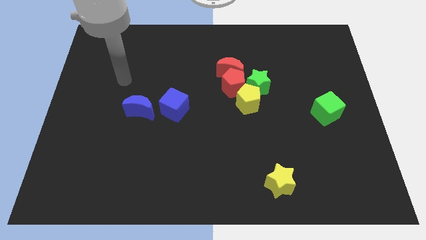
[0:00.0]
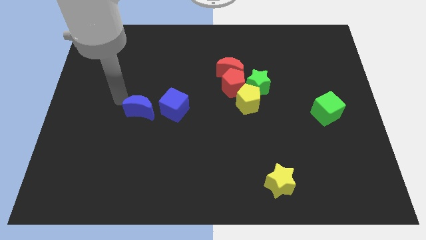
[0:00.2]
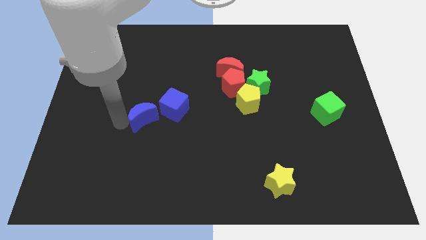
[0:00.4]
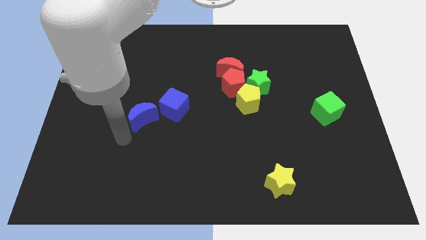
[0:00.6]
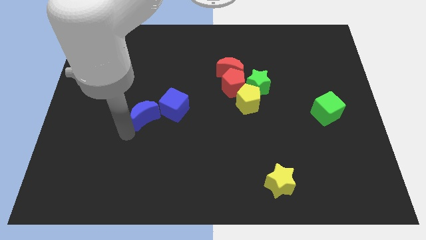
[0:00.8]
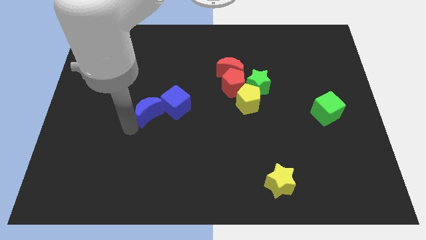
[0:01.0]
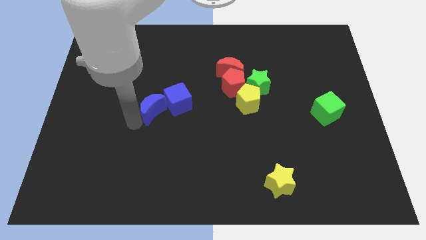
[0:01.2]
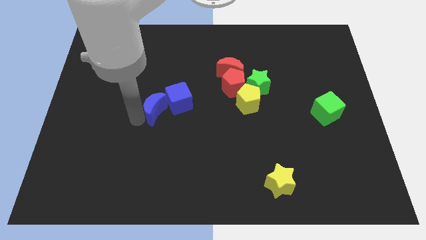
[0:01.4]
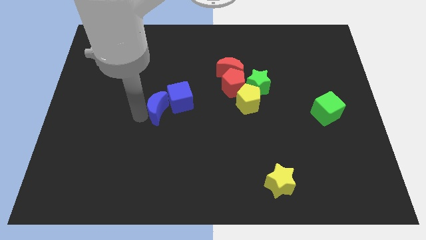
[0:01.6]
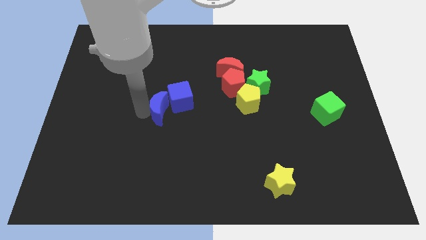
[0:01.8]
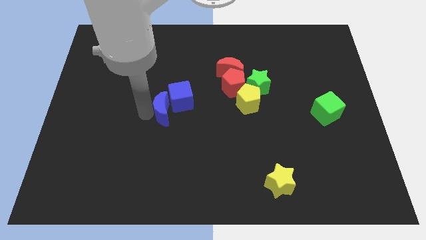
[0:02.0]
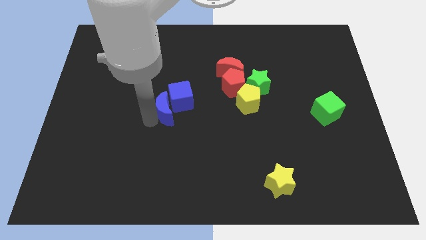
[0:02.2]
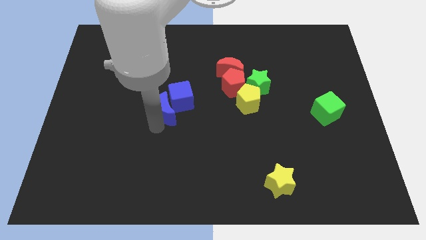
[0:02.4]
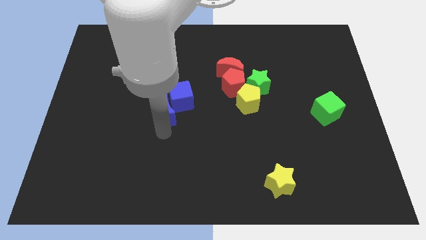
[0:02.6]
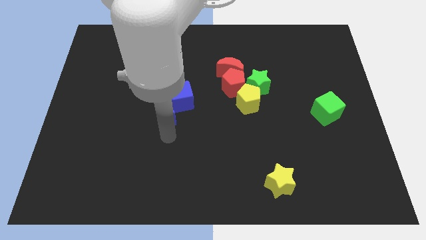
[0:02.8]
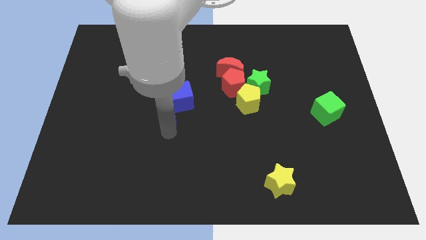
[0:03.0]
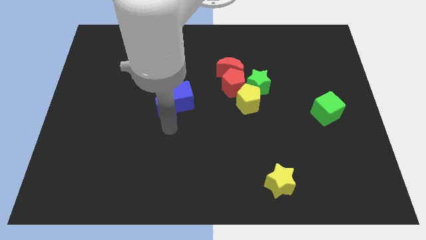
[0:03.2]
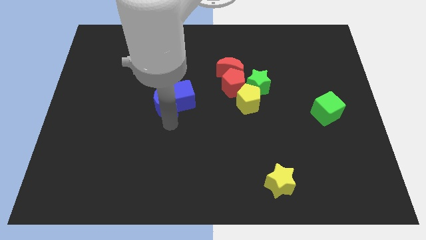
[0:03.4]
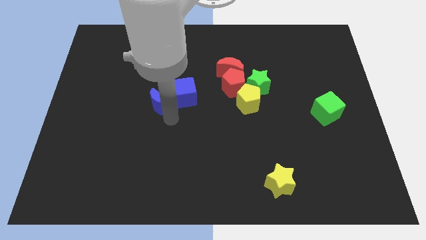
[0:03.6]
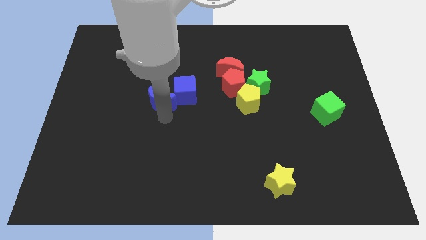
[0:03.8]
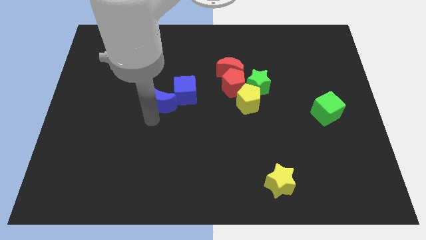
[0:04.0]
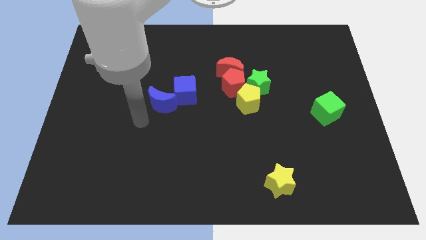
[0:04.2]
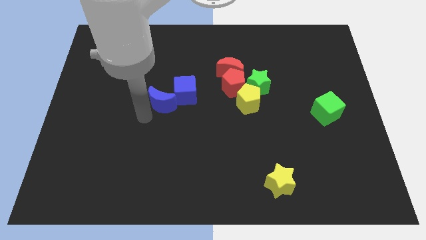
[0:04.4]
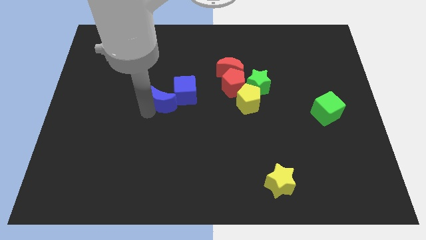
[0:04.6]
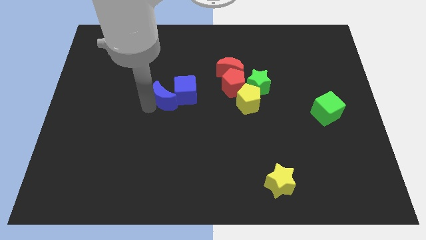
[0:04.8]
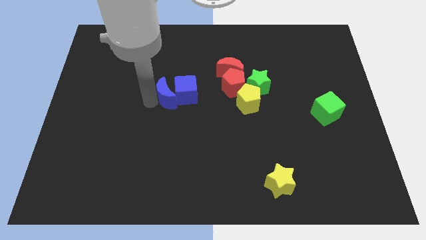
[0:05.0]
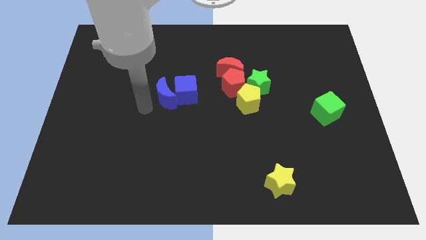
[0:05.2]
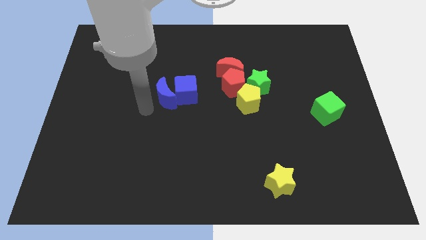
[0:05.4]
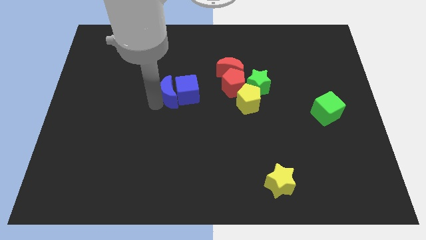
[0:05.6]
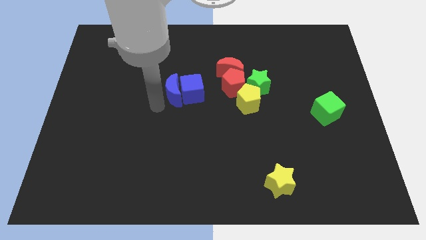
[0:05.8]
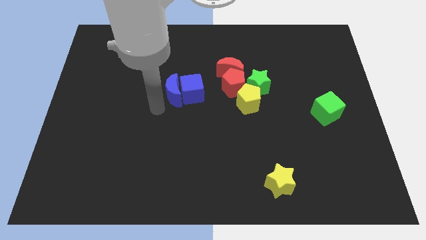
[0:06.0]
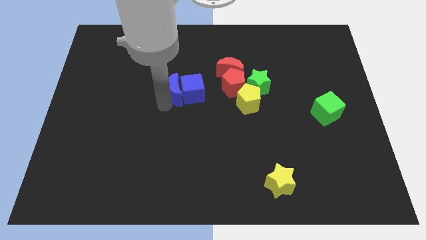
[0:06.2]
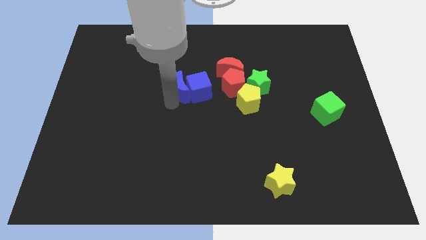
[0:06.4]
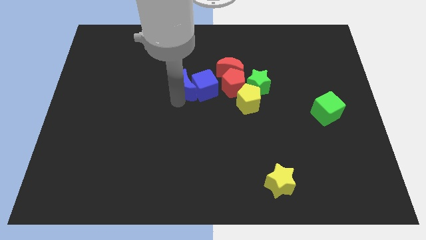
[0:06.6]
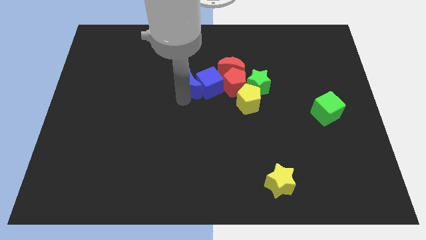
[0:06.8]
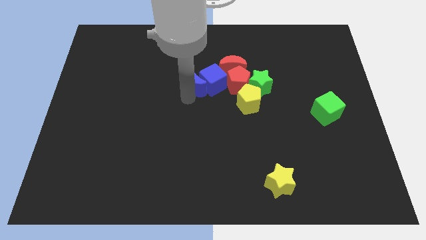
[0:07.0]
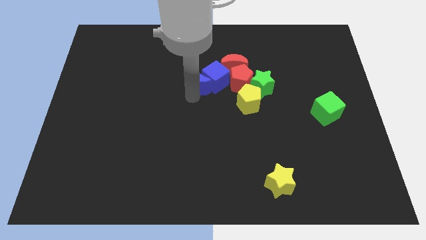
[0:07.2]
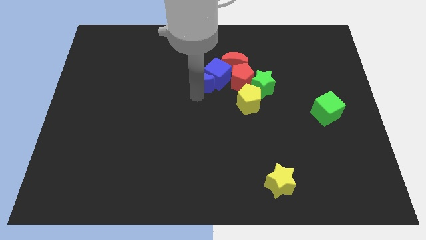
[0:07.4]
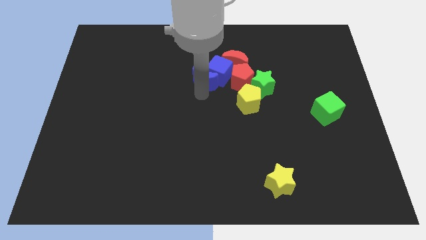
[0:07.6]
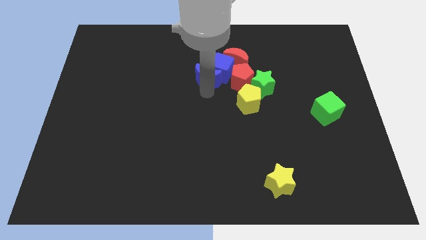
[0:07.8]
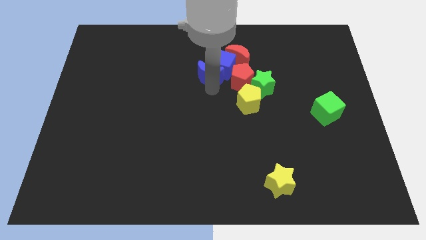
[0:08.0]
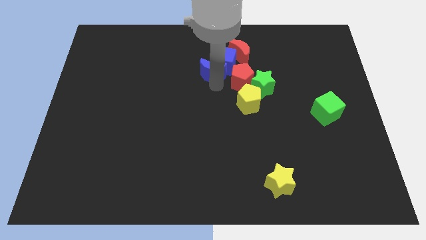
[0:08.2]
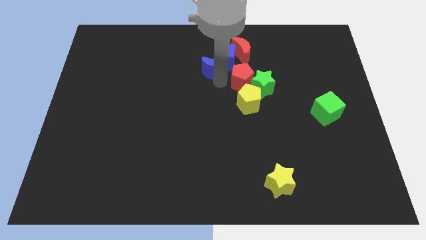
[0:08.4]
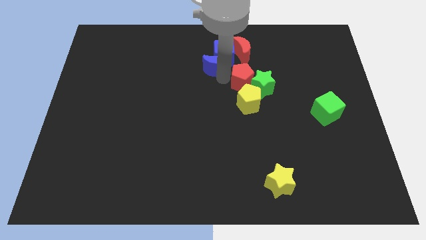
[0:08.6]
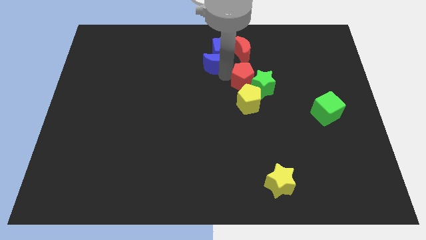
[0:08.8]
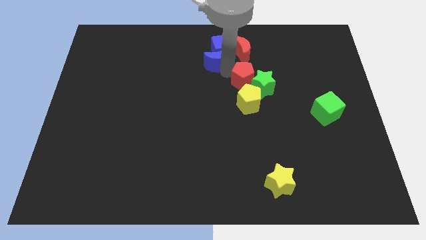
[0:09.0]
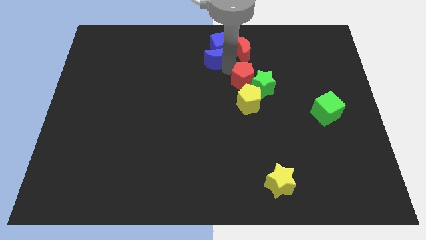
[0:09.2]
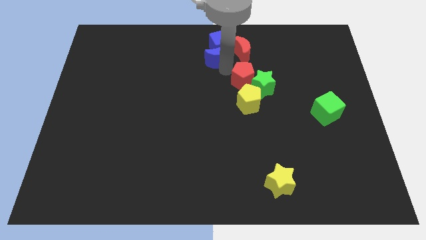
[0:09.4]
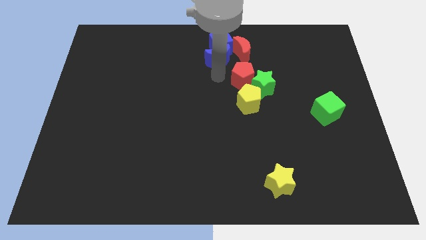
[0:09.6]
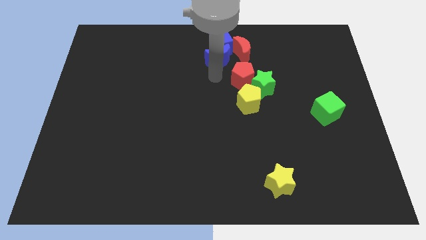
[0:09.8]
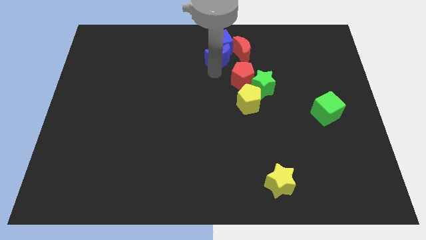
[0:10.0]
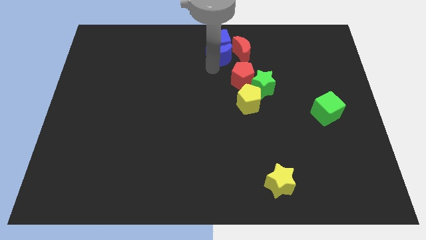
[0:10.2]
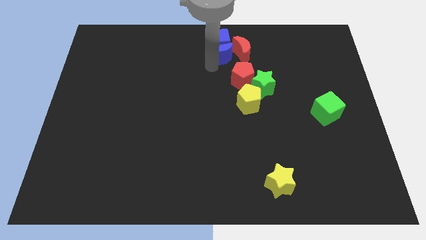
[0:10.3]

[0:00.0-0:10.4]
push the blue moon to the top side

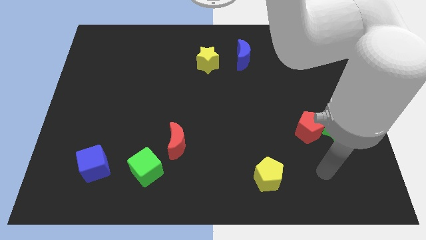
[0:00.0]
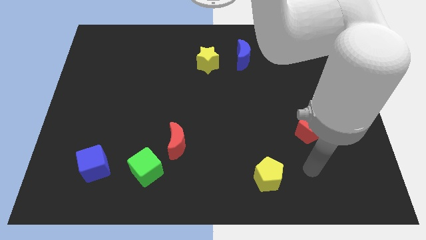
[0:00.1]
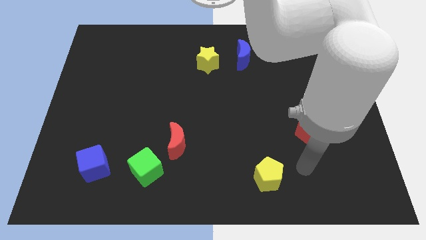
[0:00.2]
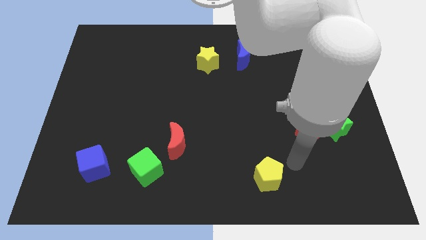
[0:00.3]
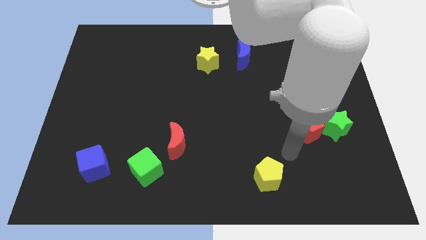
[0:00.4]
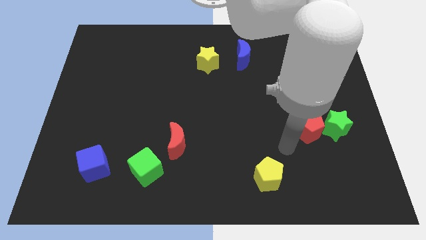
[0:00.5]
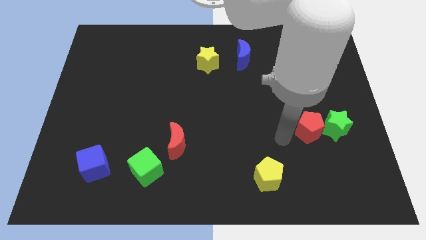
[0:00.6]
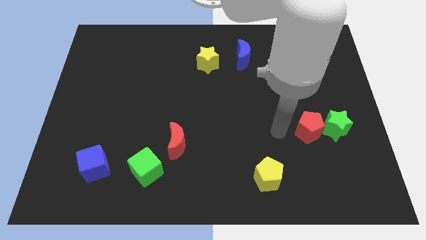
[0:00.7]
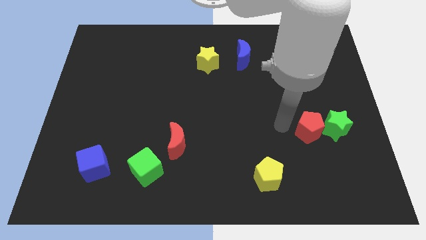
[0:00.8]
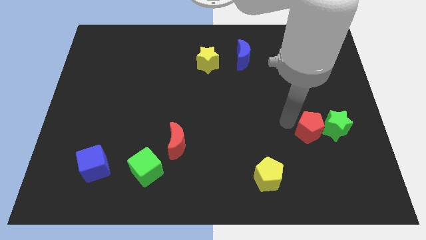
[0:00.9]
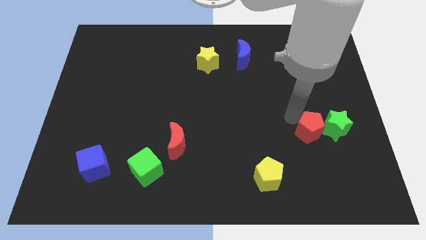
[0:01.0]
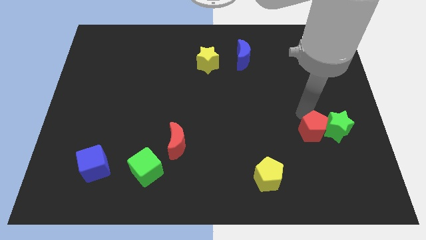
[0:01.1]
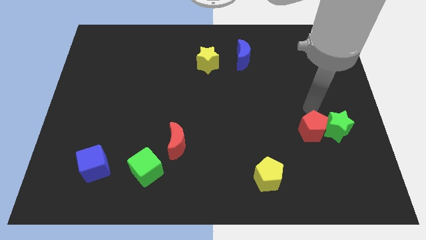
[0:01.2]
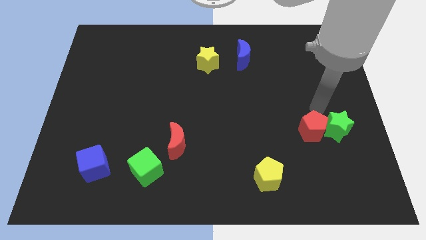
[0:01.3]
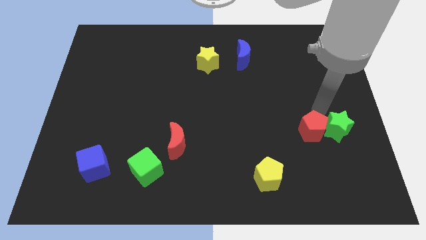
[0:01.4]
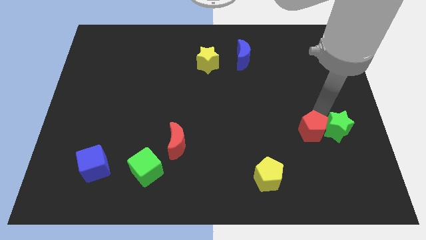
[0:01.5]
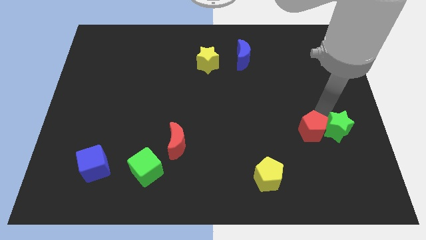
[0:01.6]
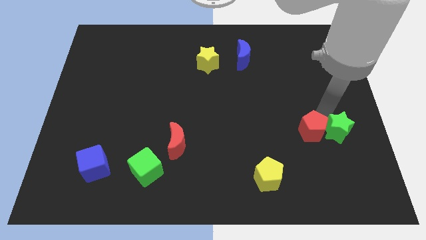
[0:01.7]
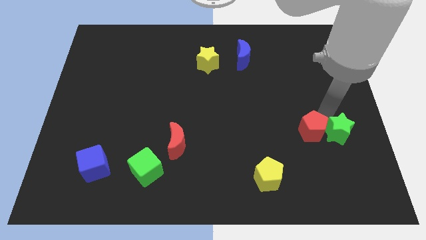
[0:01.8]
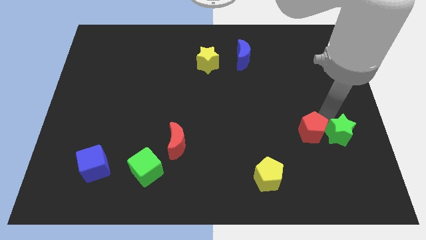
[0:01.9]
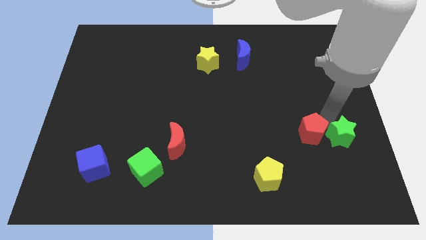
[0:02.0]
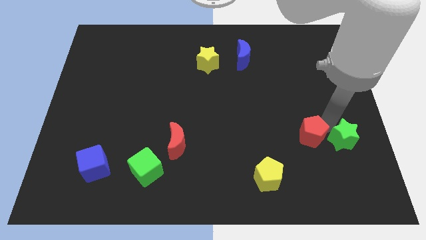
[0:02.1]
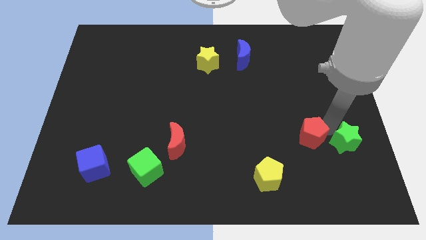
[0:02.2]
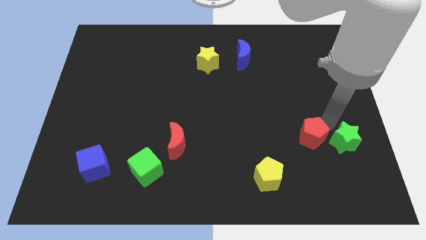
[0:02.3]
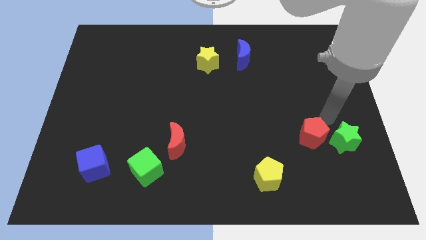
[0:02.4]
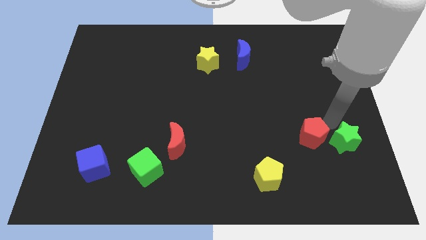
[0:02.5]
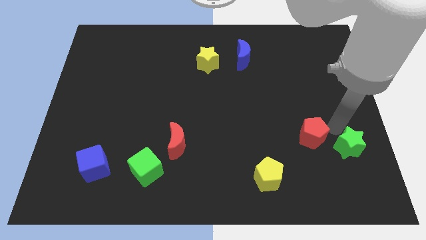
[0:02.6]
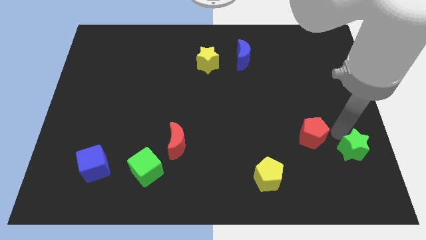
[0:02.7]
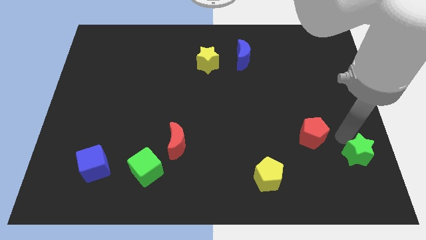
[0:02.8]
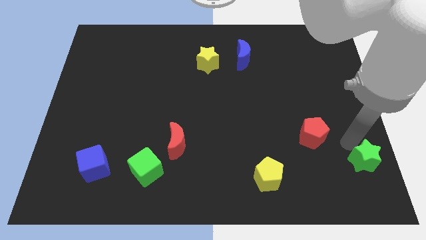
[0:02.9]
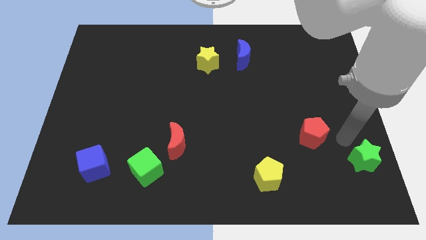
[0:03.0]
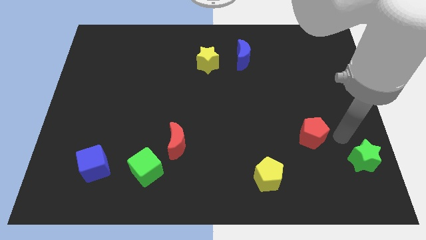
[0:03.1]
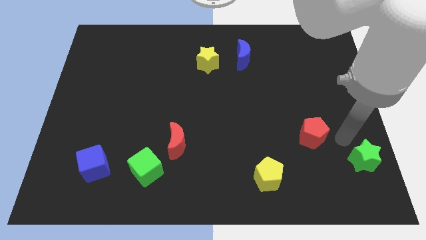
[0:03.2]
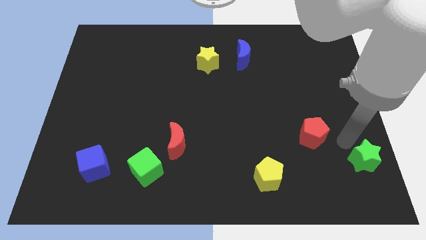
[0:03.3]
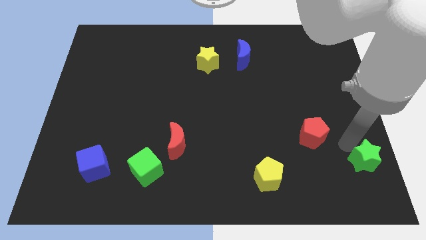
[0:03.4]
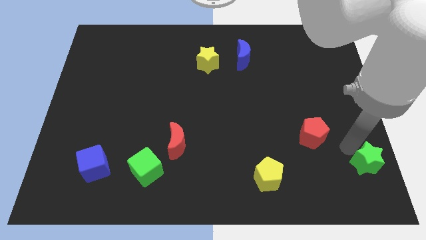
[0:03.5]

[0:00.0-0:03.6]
slide the green star to the lower right corner
